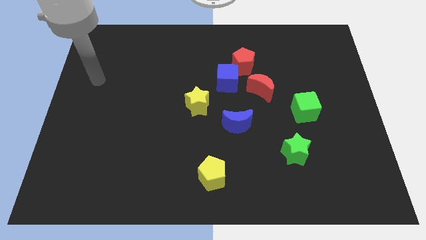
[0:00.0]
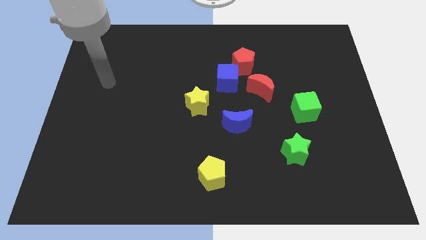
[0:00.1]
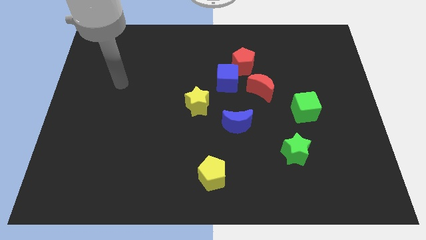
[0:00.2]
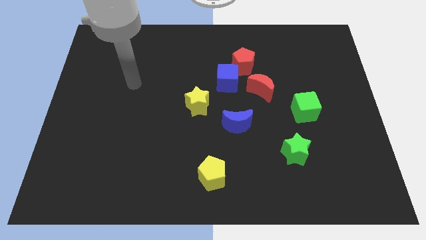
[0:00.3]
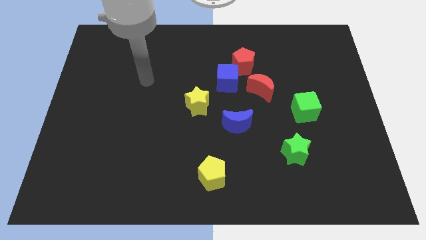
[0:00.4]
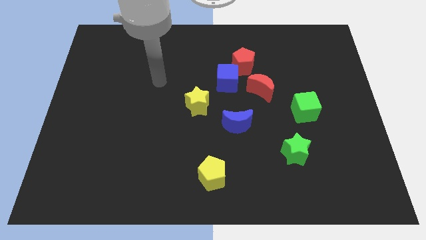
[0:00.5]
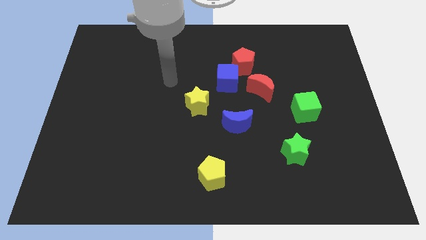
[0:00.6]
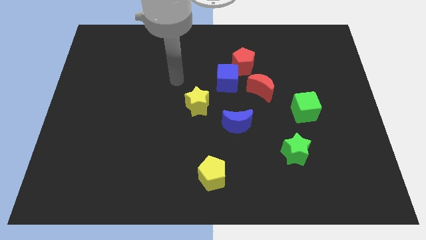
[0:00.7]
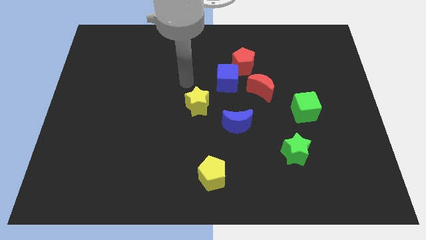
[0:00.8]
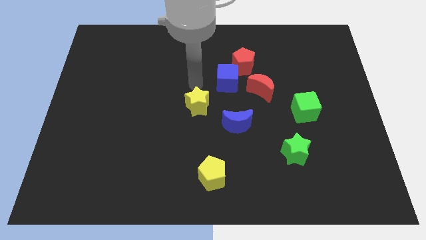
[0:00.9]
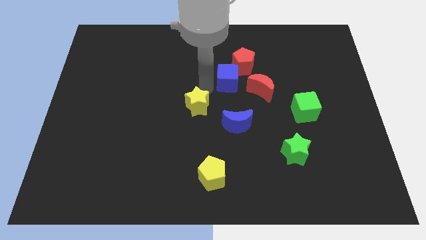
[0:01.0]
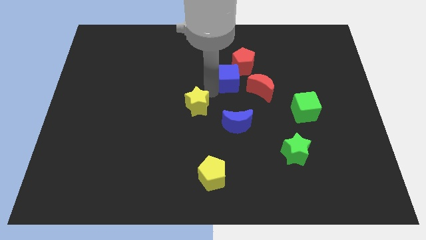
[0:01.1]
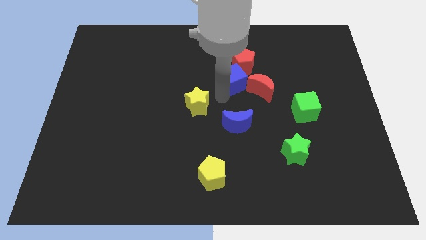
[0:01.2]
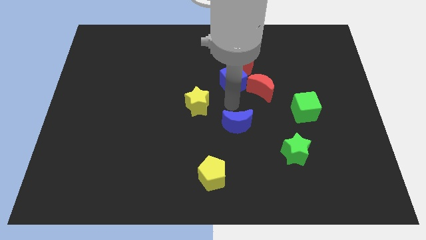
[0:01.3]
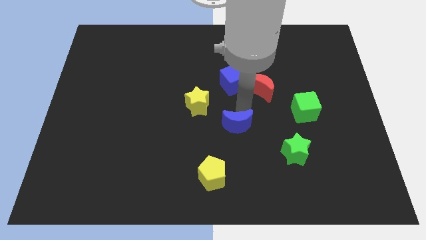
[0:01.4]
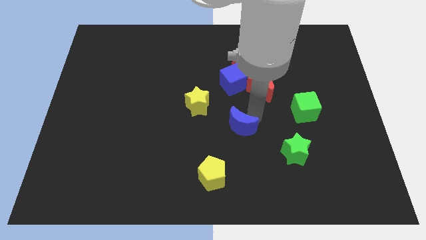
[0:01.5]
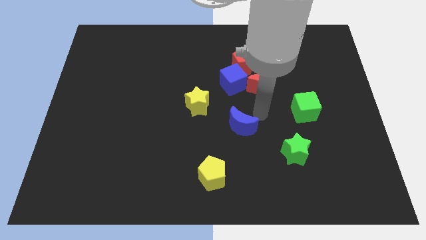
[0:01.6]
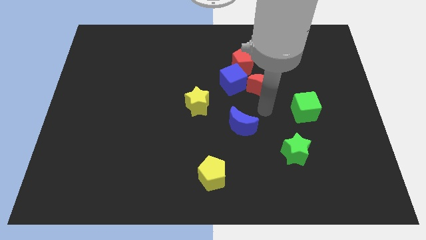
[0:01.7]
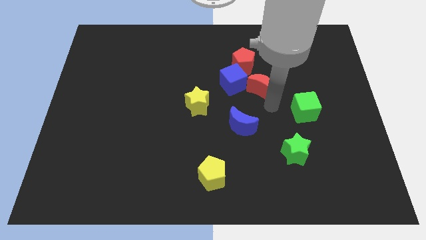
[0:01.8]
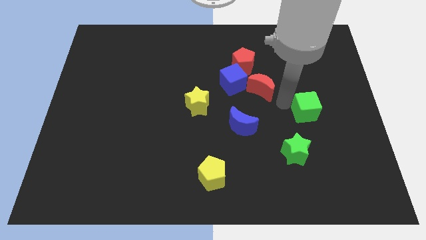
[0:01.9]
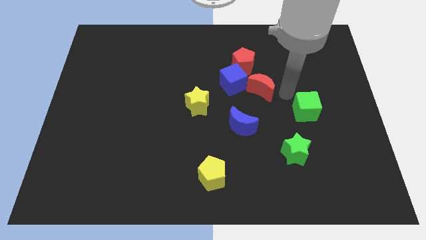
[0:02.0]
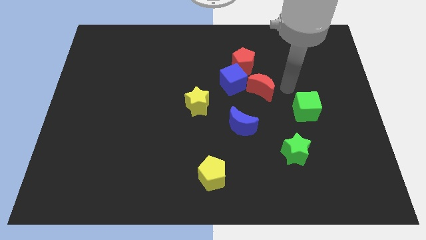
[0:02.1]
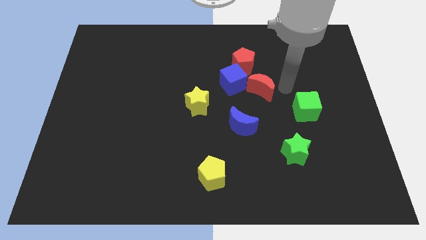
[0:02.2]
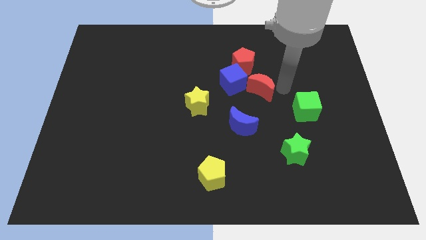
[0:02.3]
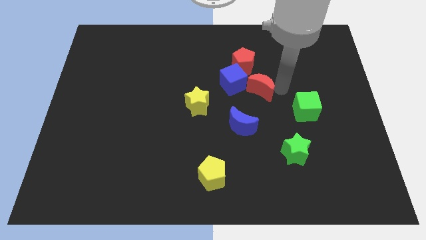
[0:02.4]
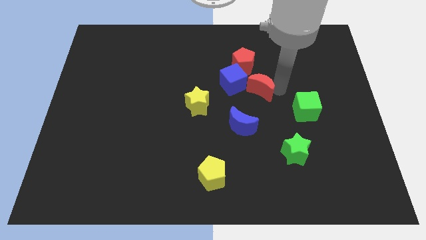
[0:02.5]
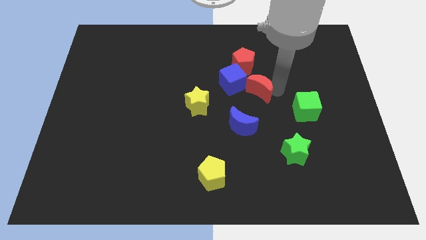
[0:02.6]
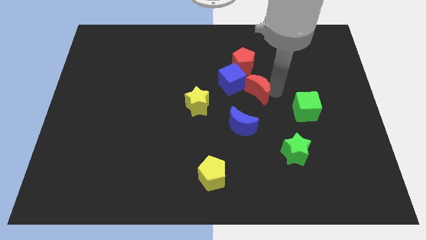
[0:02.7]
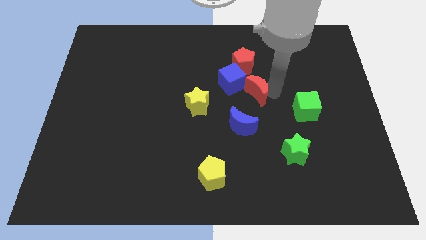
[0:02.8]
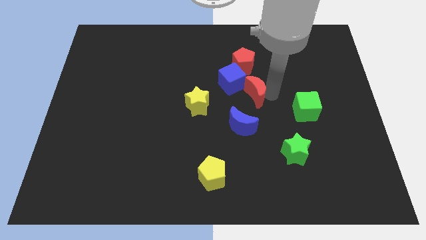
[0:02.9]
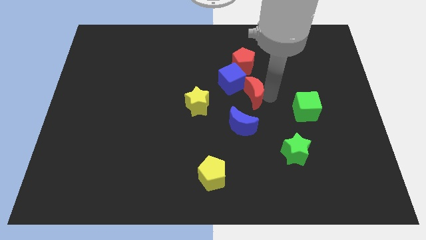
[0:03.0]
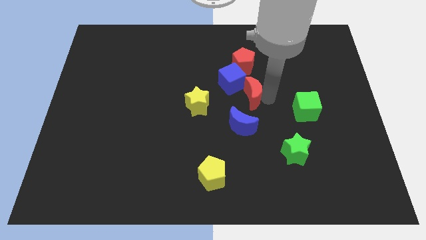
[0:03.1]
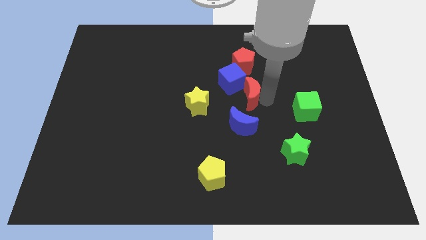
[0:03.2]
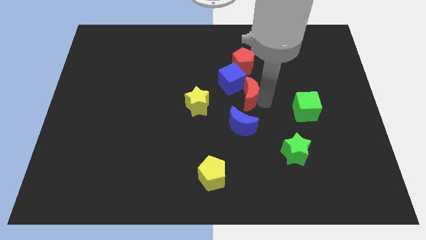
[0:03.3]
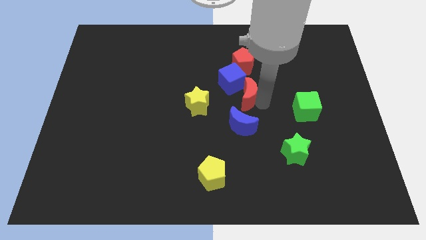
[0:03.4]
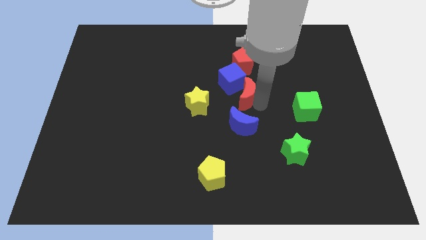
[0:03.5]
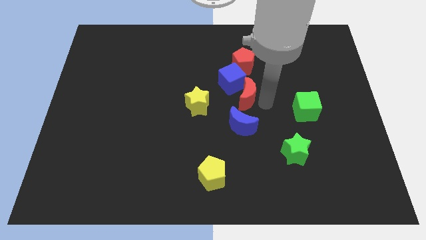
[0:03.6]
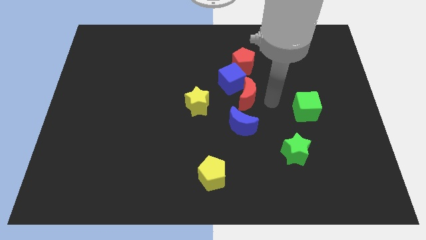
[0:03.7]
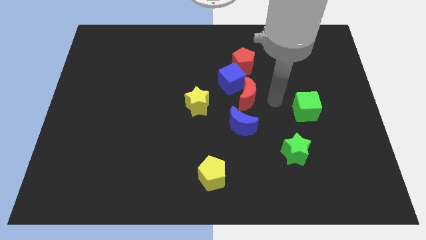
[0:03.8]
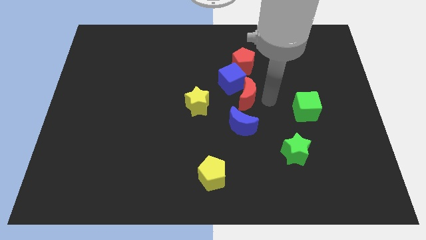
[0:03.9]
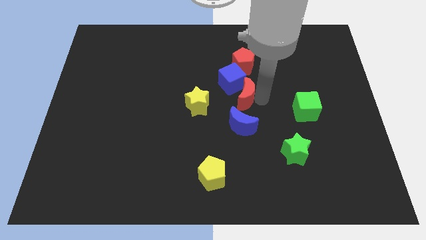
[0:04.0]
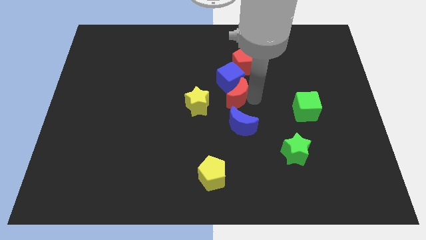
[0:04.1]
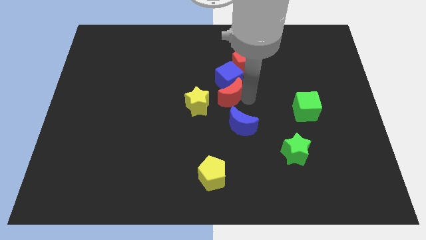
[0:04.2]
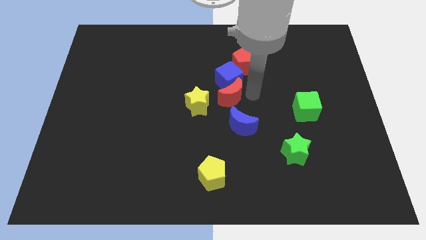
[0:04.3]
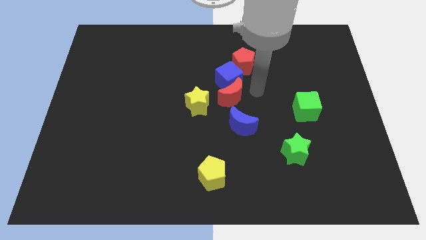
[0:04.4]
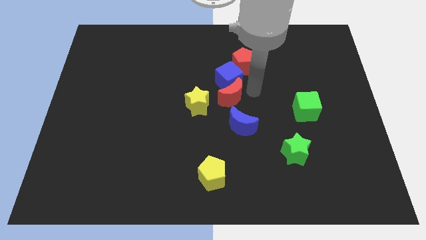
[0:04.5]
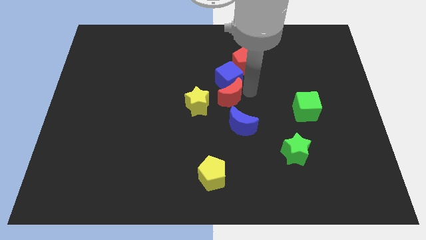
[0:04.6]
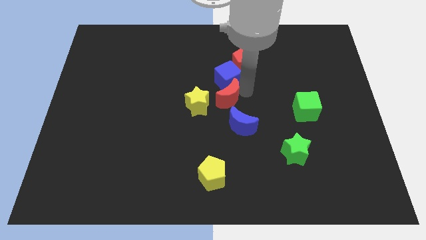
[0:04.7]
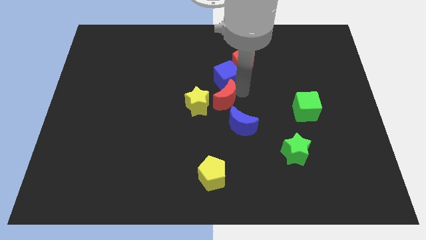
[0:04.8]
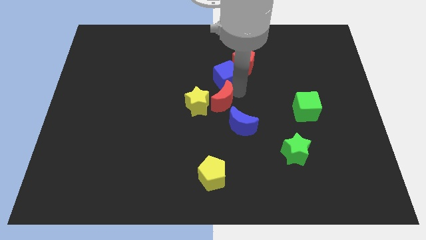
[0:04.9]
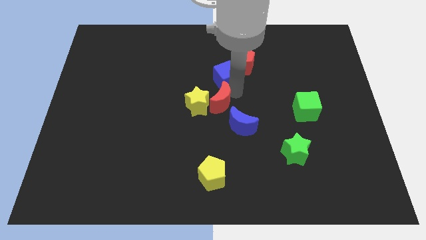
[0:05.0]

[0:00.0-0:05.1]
push the red moon next to the yellow star

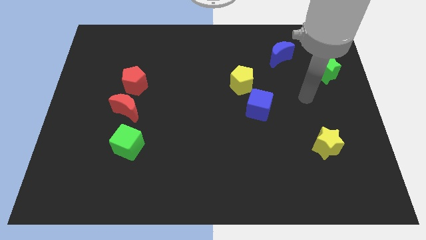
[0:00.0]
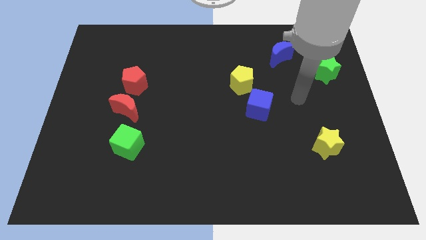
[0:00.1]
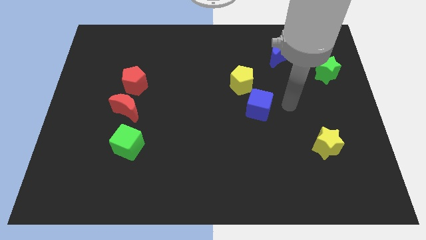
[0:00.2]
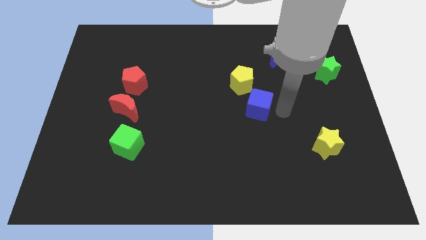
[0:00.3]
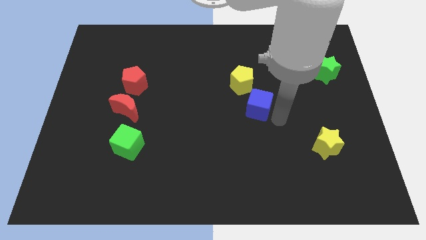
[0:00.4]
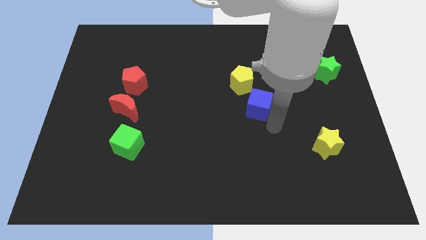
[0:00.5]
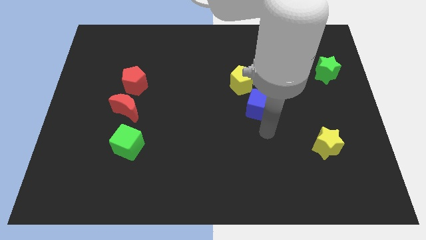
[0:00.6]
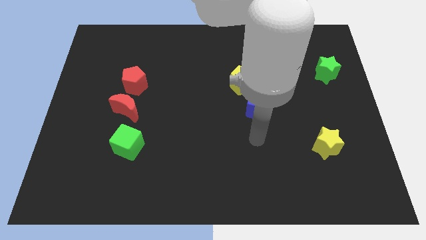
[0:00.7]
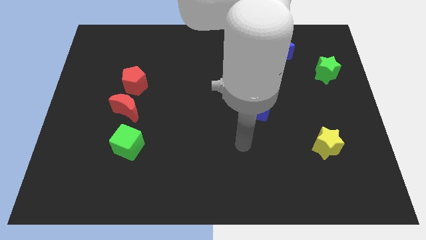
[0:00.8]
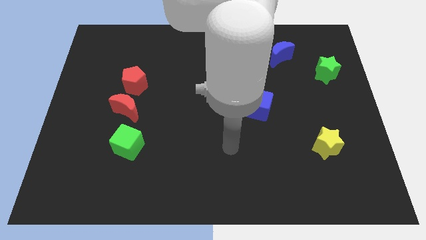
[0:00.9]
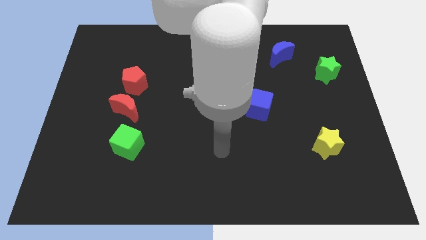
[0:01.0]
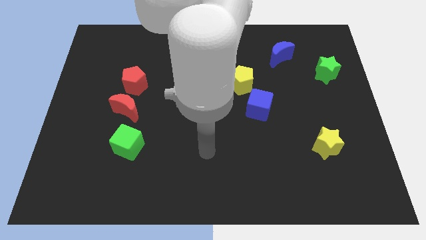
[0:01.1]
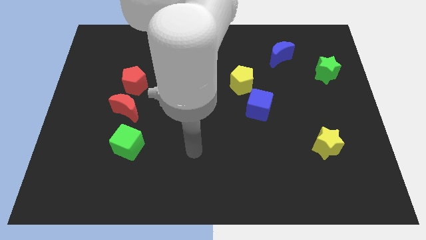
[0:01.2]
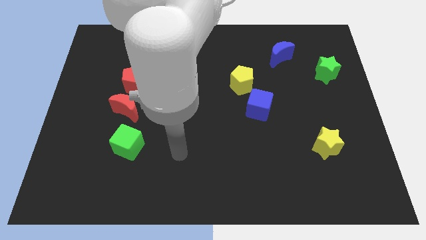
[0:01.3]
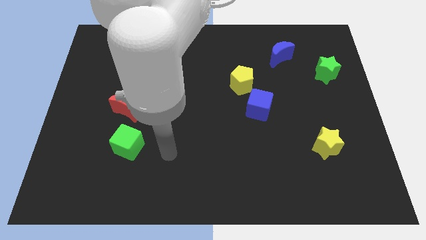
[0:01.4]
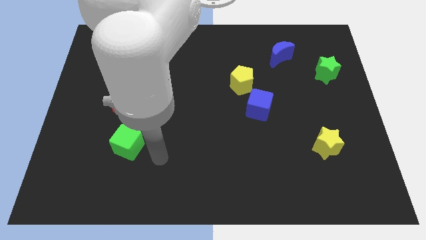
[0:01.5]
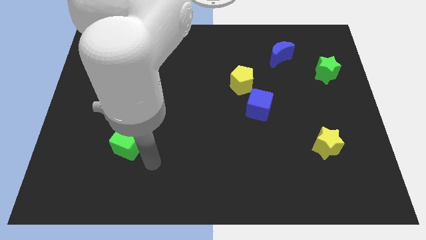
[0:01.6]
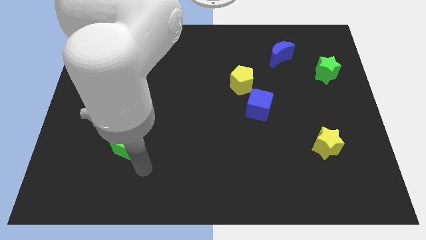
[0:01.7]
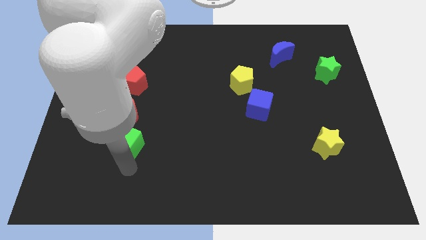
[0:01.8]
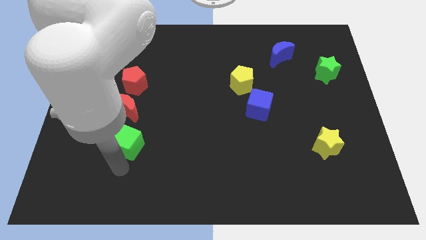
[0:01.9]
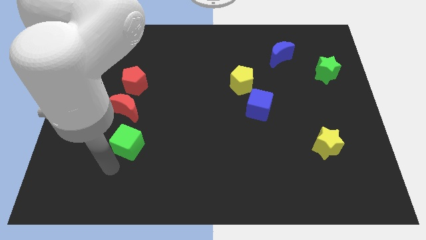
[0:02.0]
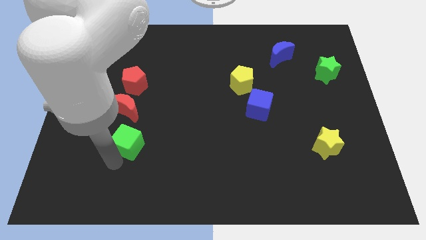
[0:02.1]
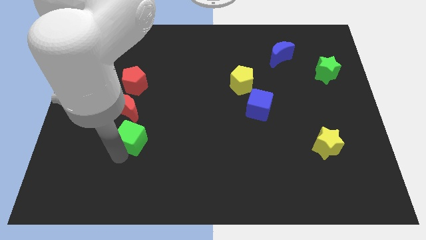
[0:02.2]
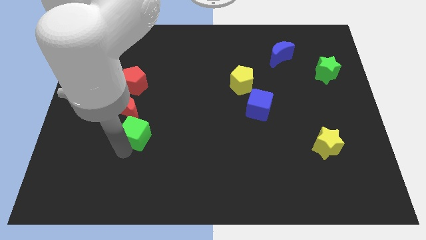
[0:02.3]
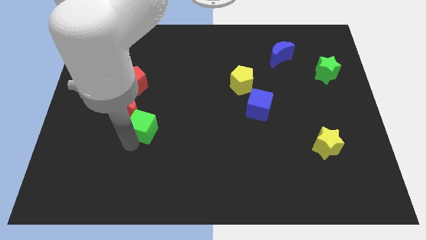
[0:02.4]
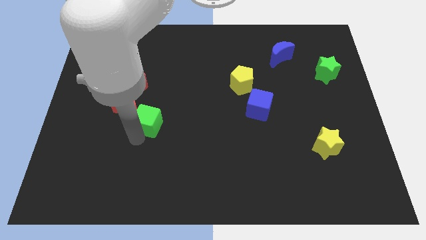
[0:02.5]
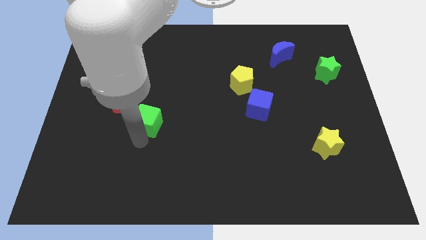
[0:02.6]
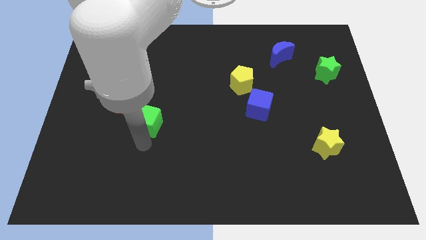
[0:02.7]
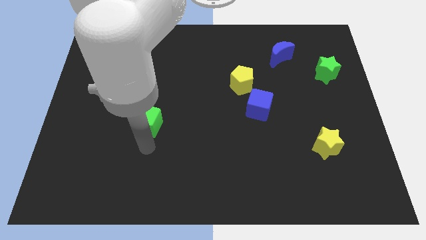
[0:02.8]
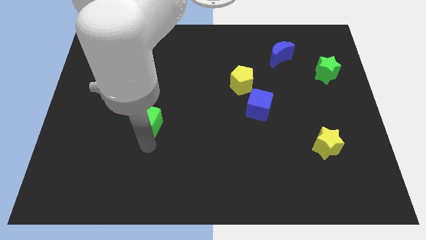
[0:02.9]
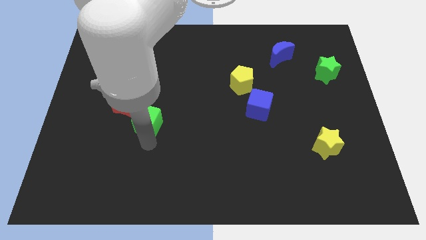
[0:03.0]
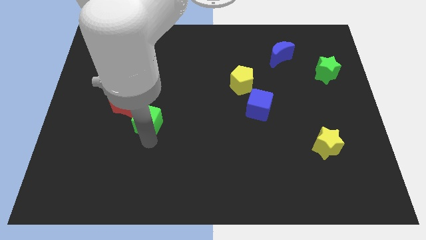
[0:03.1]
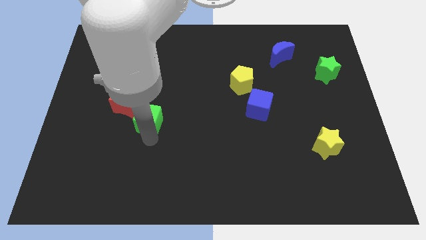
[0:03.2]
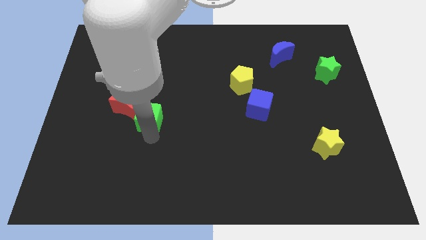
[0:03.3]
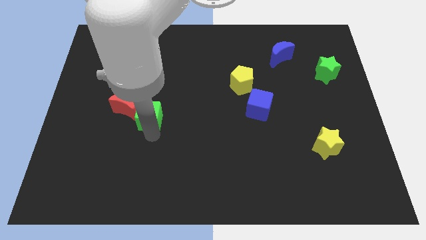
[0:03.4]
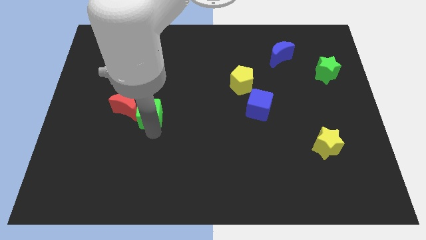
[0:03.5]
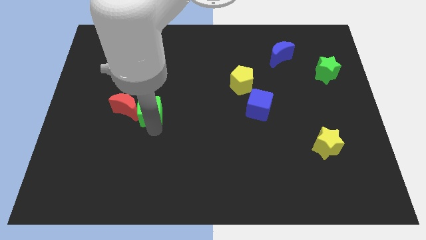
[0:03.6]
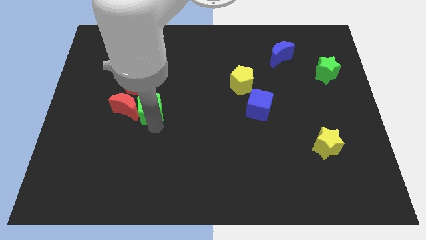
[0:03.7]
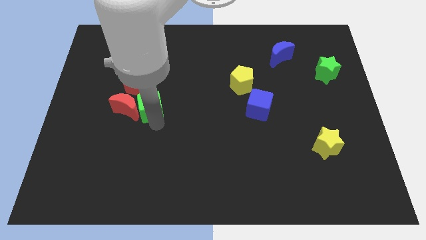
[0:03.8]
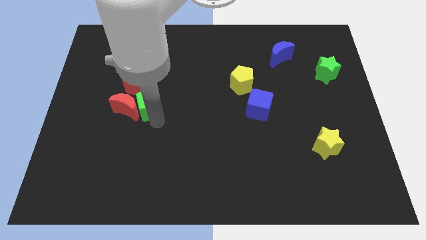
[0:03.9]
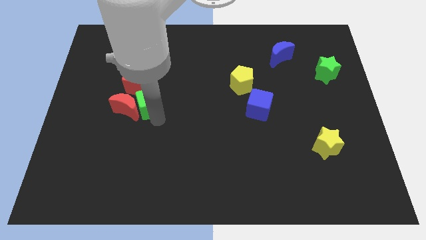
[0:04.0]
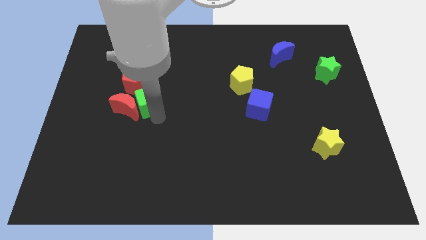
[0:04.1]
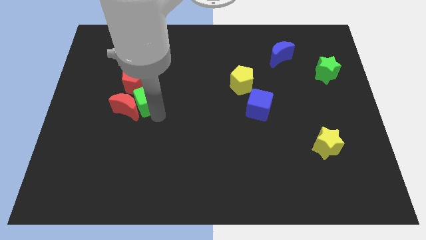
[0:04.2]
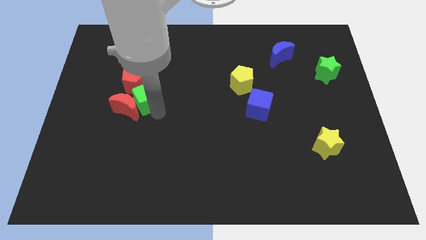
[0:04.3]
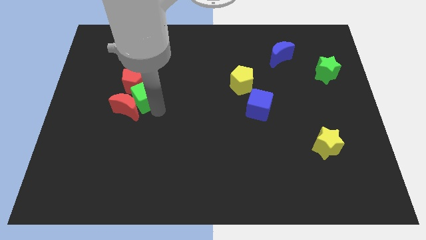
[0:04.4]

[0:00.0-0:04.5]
put the green cube close to the red pentagon
